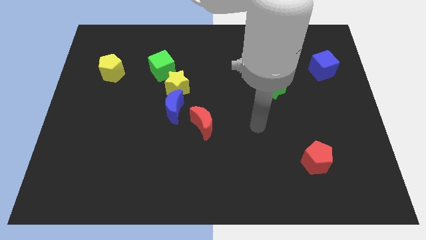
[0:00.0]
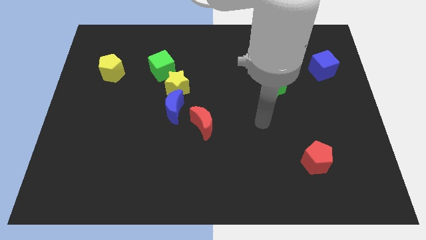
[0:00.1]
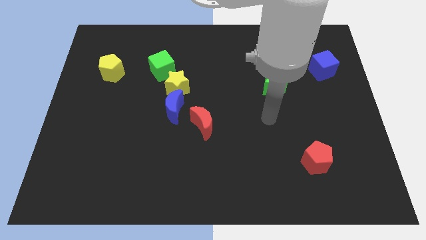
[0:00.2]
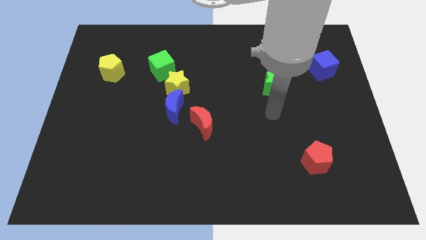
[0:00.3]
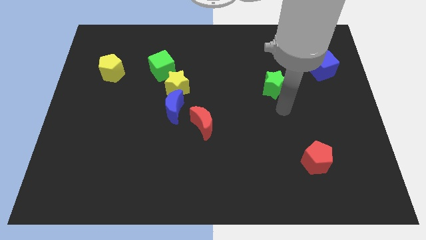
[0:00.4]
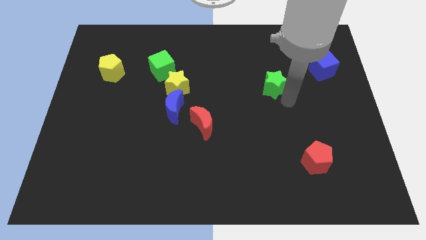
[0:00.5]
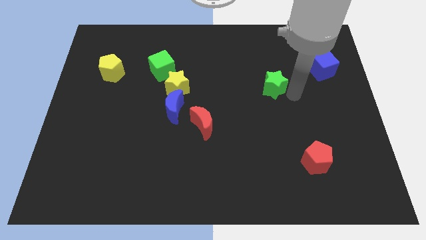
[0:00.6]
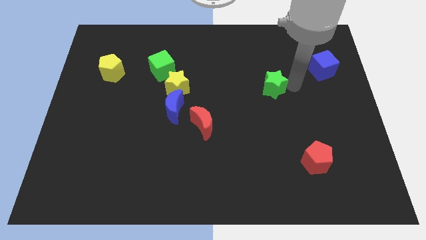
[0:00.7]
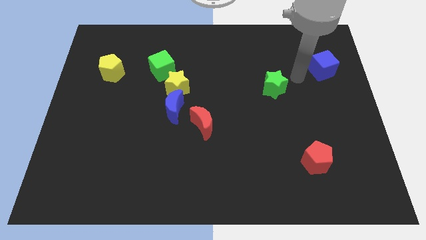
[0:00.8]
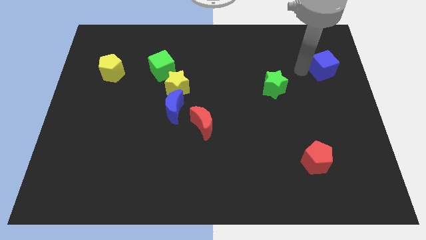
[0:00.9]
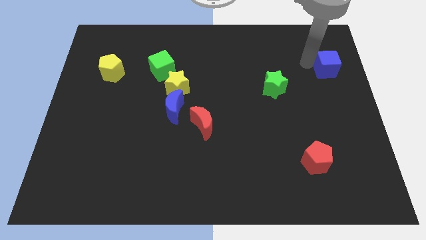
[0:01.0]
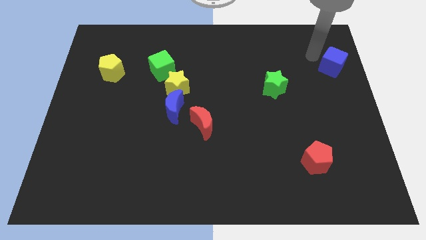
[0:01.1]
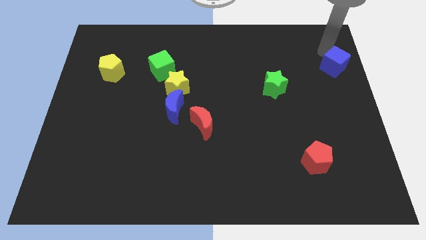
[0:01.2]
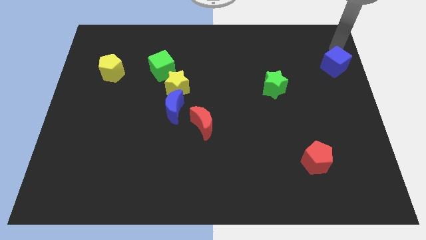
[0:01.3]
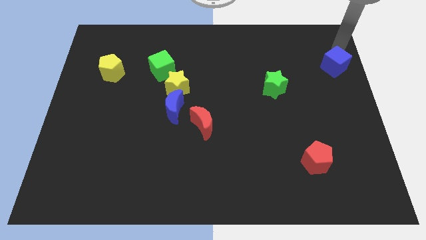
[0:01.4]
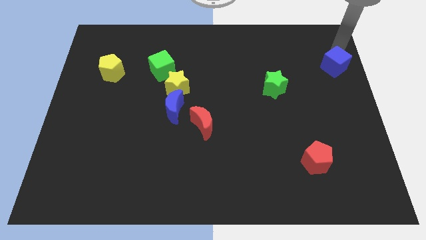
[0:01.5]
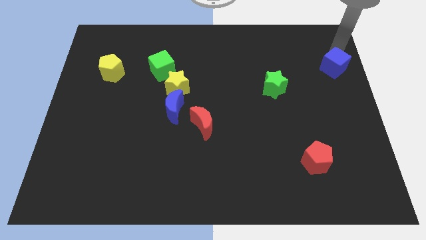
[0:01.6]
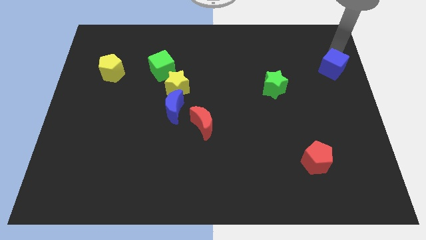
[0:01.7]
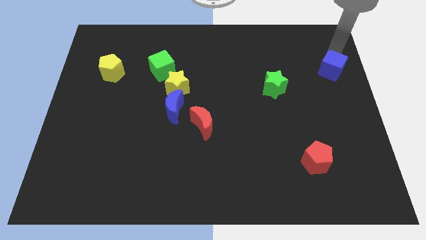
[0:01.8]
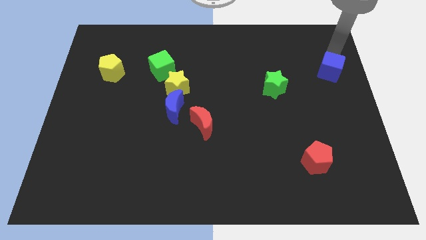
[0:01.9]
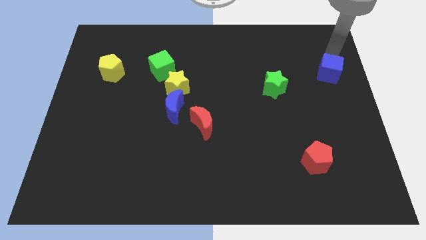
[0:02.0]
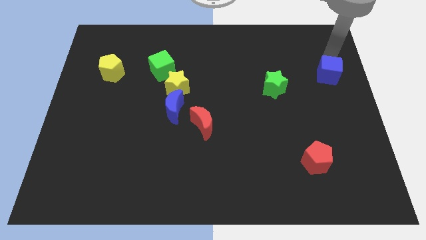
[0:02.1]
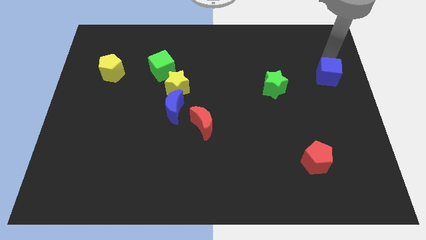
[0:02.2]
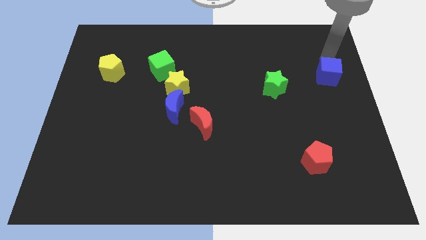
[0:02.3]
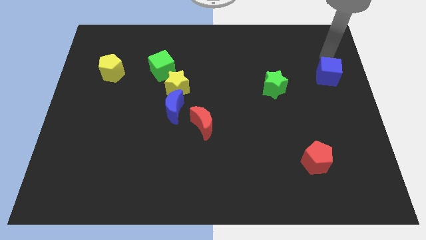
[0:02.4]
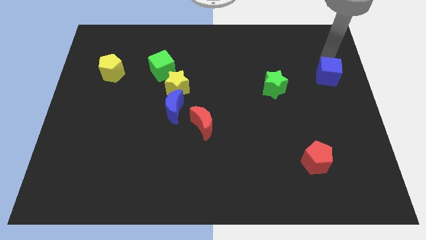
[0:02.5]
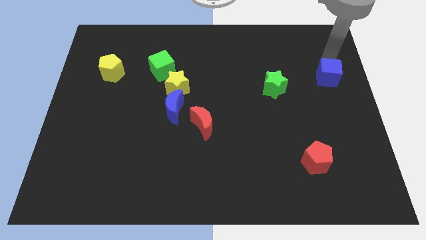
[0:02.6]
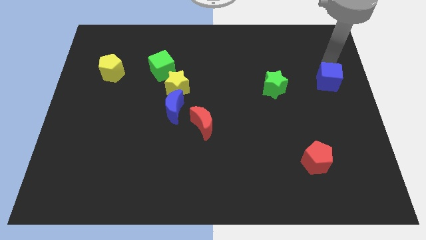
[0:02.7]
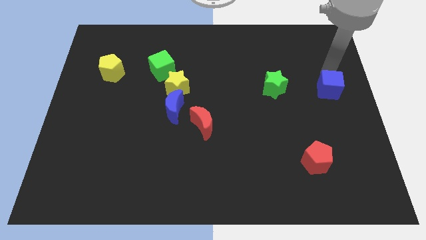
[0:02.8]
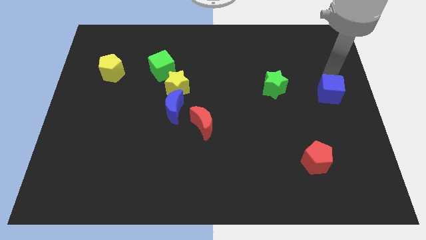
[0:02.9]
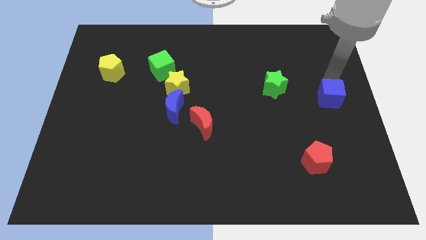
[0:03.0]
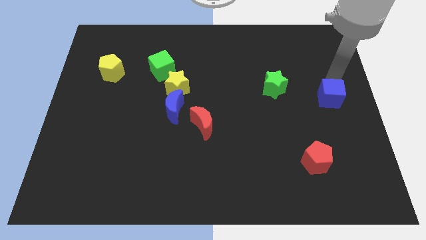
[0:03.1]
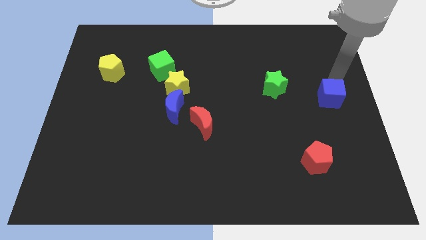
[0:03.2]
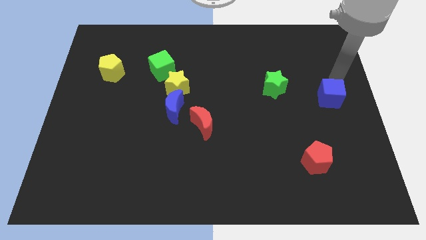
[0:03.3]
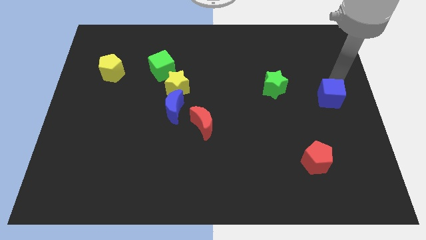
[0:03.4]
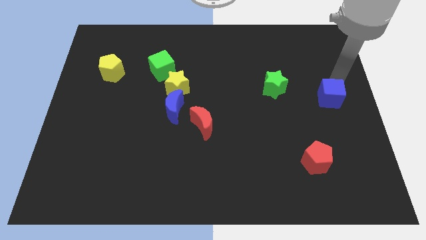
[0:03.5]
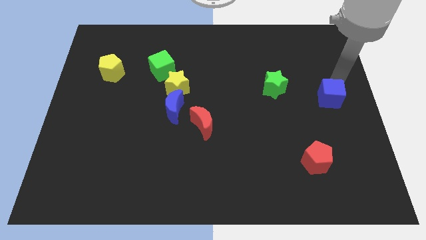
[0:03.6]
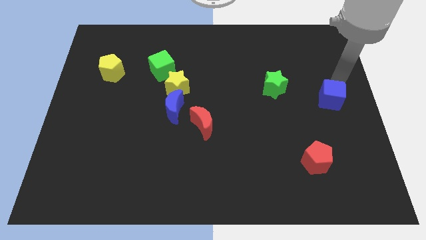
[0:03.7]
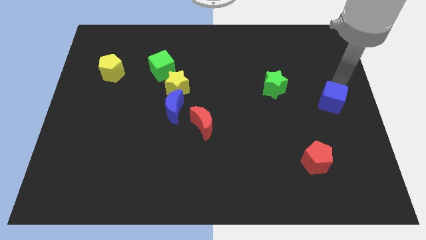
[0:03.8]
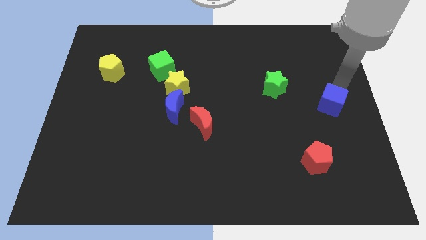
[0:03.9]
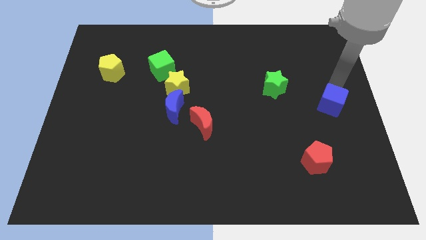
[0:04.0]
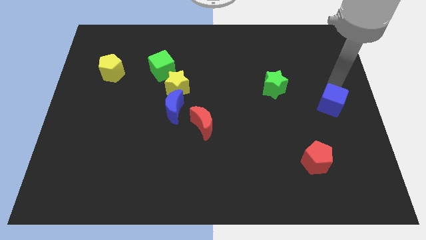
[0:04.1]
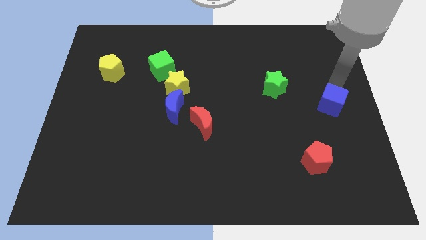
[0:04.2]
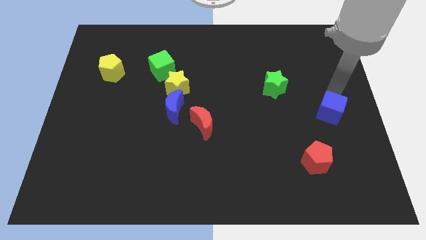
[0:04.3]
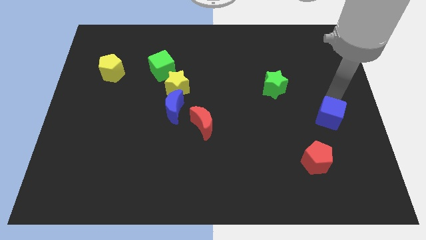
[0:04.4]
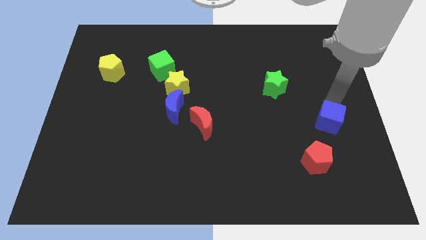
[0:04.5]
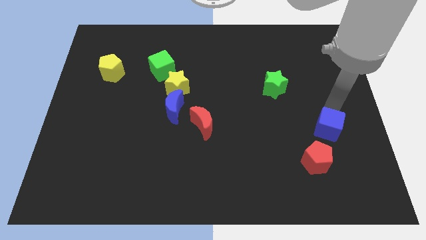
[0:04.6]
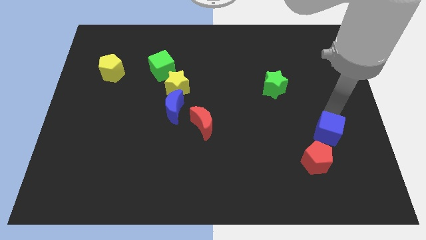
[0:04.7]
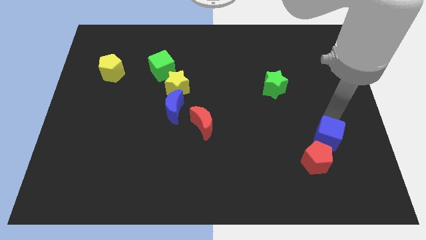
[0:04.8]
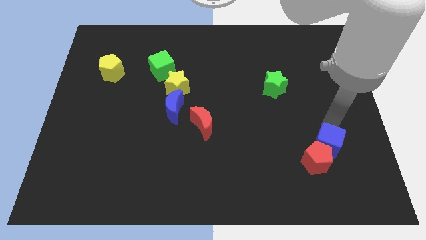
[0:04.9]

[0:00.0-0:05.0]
move the blue cube towards the red pentagon

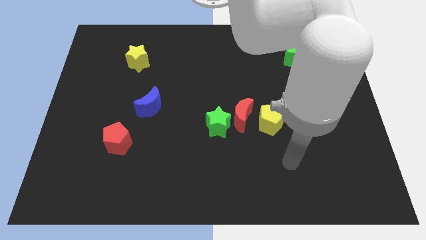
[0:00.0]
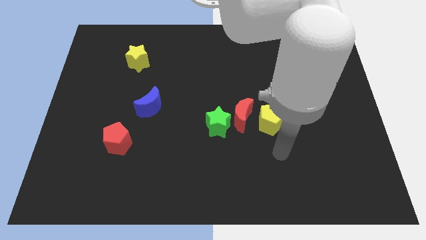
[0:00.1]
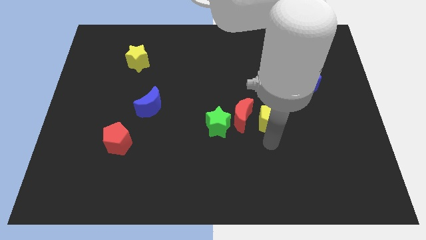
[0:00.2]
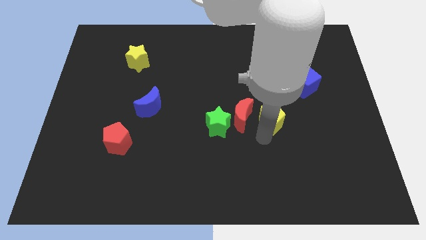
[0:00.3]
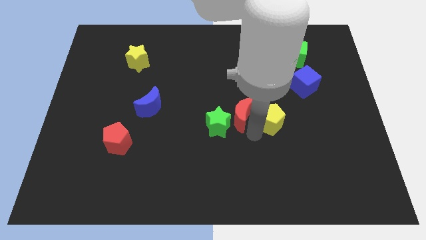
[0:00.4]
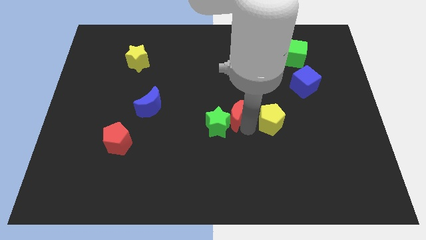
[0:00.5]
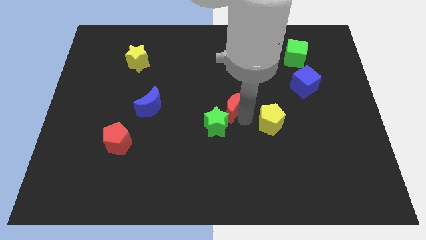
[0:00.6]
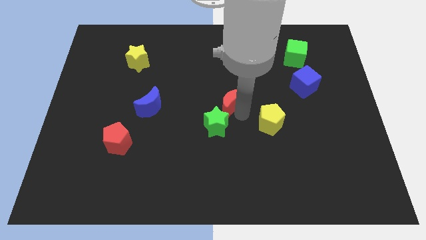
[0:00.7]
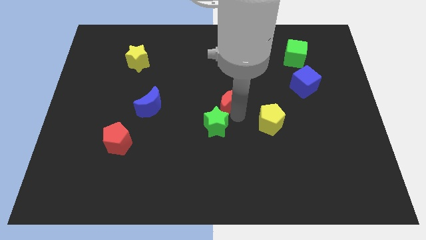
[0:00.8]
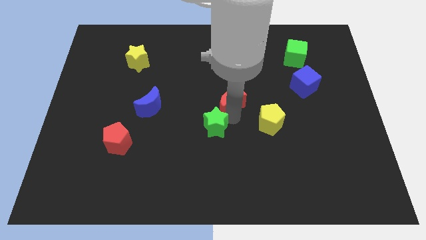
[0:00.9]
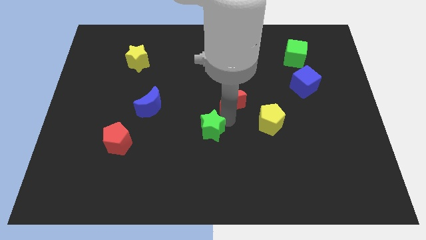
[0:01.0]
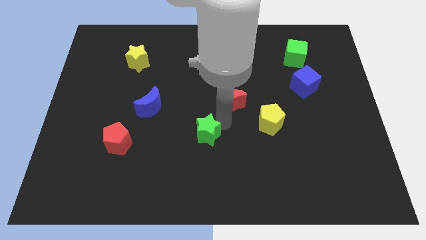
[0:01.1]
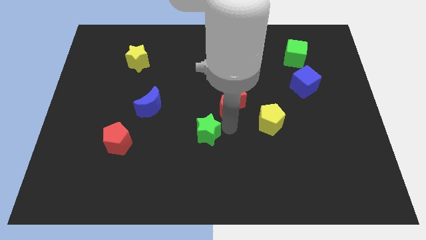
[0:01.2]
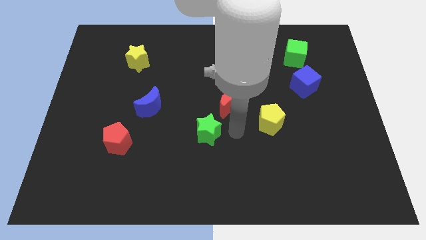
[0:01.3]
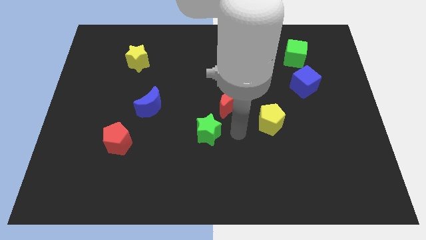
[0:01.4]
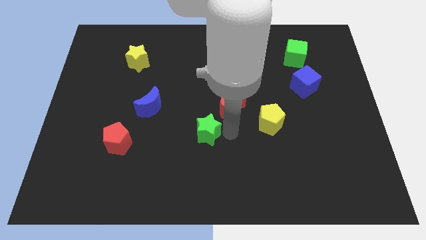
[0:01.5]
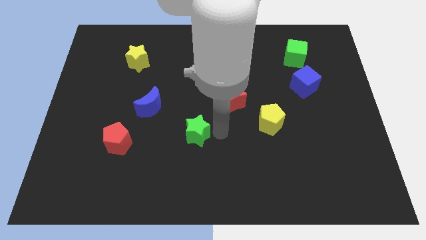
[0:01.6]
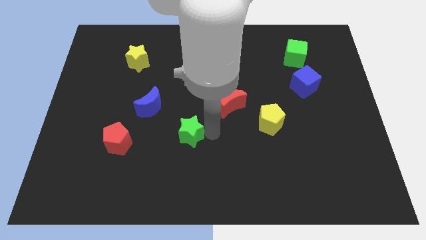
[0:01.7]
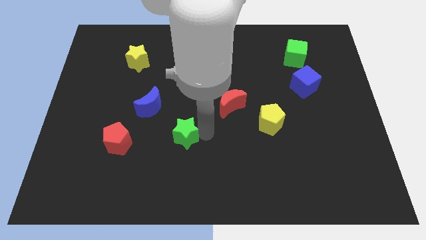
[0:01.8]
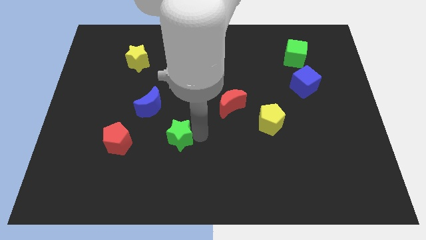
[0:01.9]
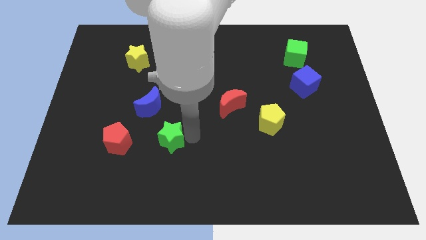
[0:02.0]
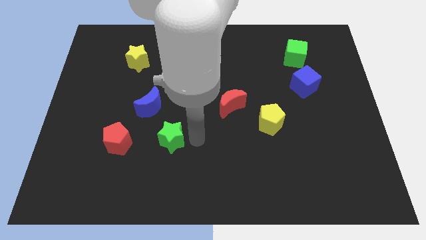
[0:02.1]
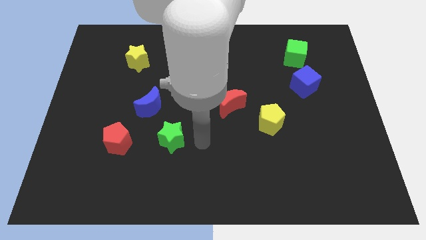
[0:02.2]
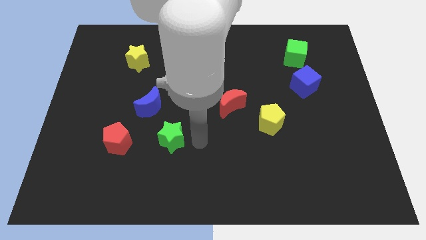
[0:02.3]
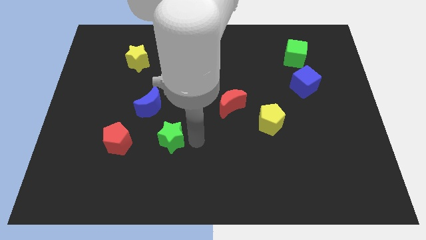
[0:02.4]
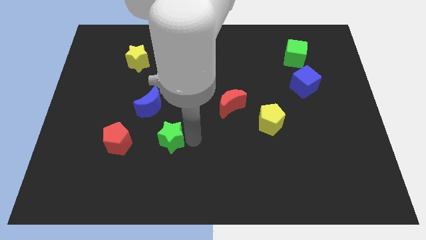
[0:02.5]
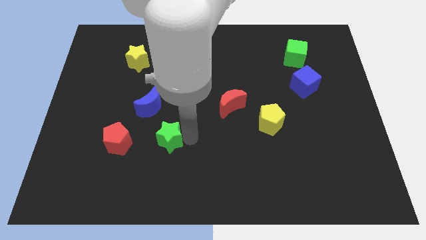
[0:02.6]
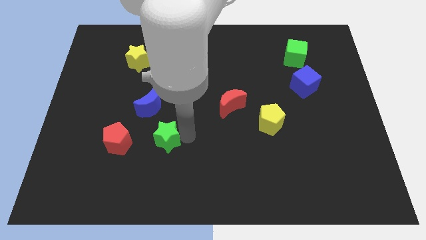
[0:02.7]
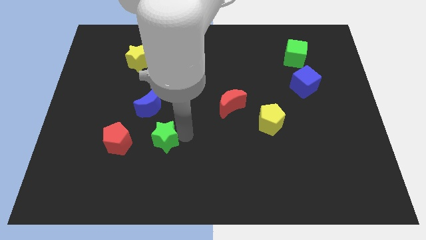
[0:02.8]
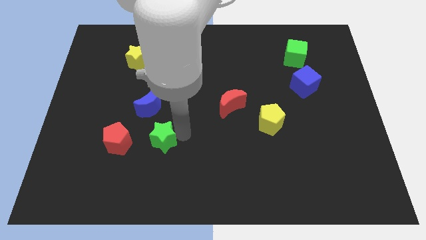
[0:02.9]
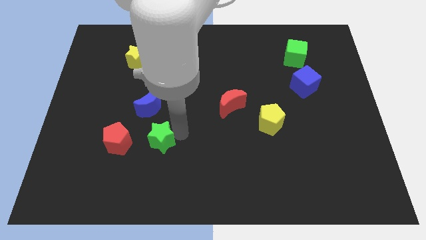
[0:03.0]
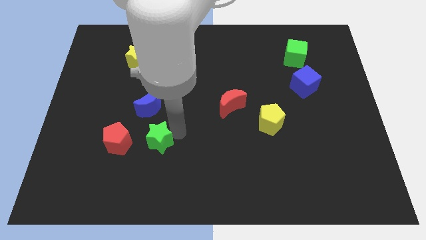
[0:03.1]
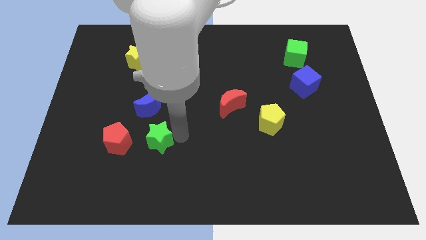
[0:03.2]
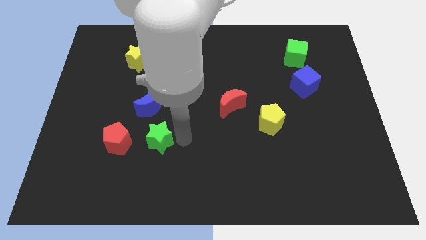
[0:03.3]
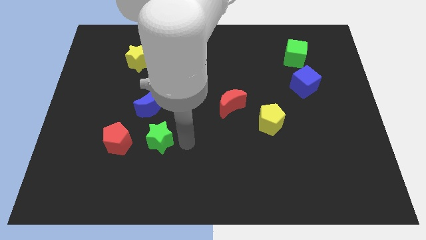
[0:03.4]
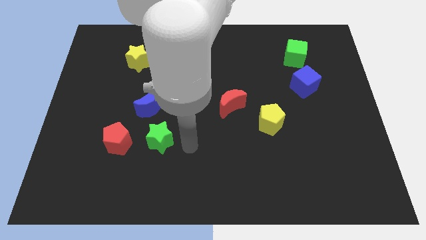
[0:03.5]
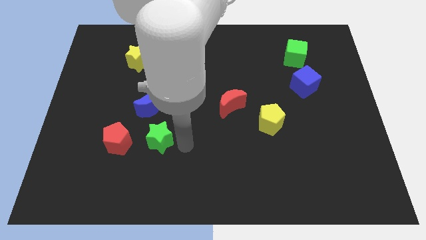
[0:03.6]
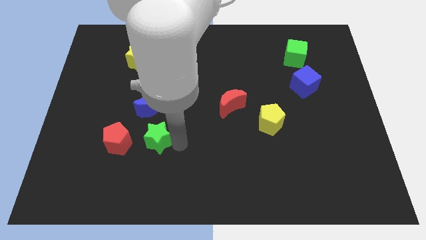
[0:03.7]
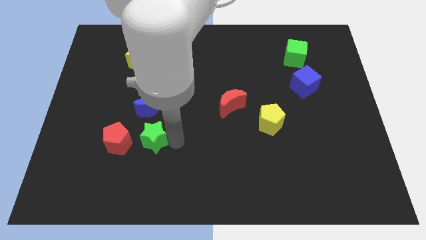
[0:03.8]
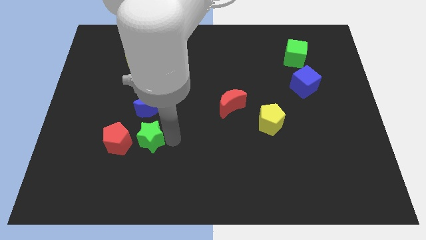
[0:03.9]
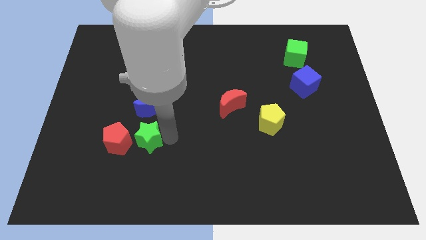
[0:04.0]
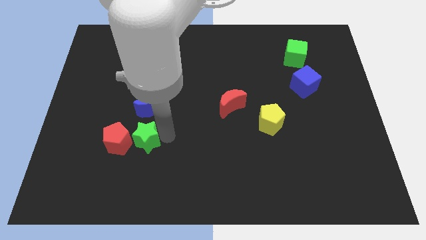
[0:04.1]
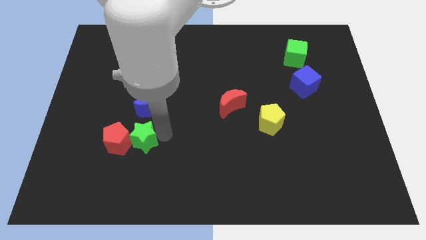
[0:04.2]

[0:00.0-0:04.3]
push the green star to the red pentagon
